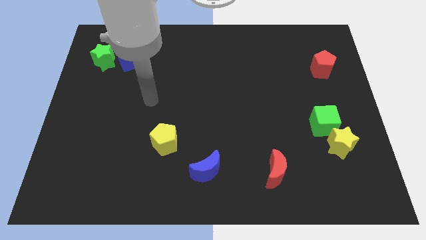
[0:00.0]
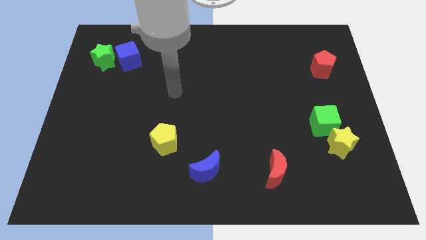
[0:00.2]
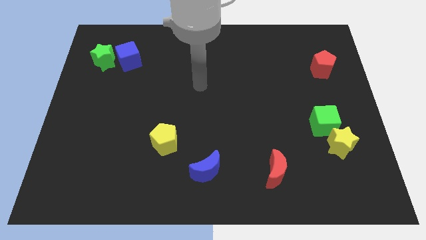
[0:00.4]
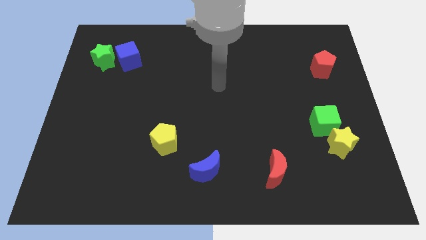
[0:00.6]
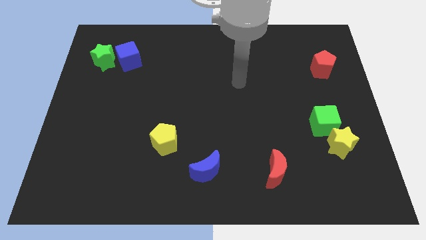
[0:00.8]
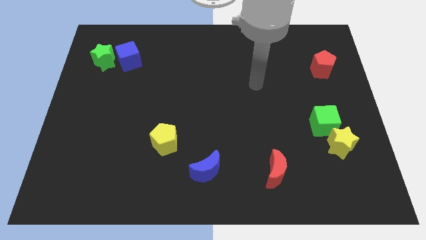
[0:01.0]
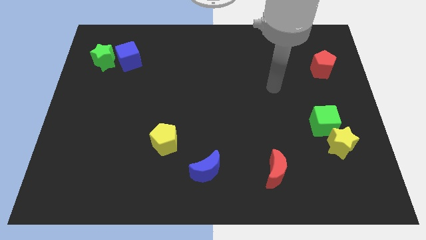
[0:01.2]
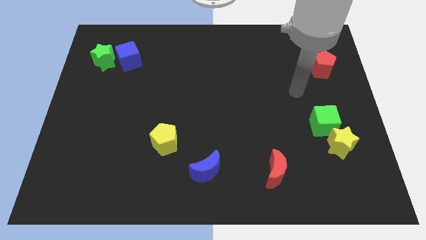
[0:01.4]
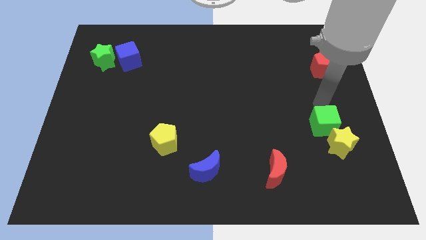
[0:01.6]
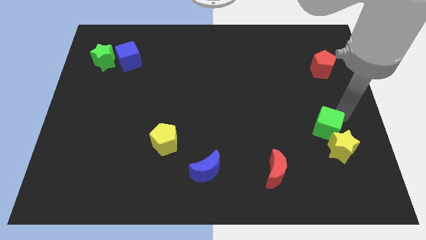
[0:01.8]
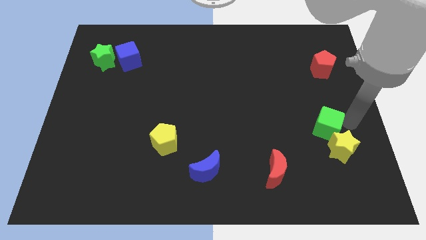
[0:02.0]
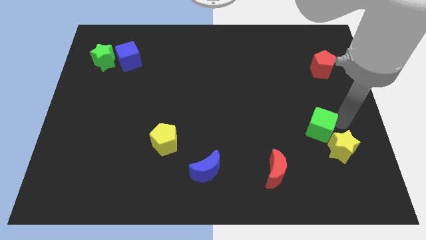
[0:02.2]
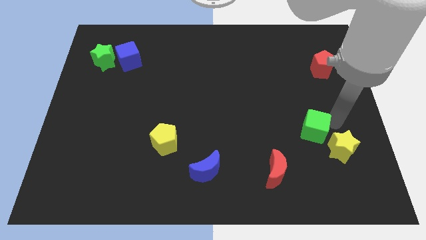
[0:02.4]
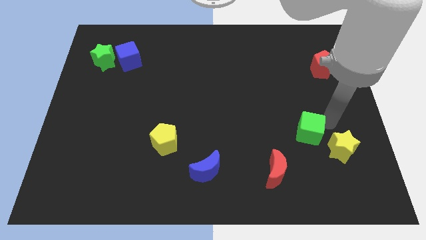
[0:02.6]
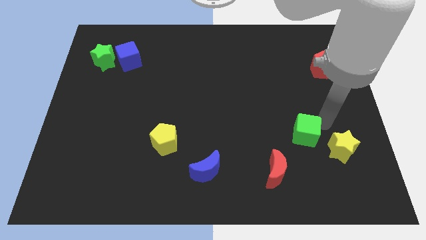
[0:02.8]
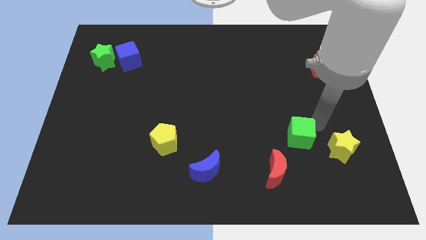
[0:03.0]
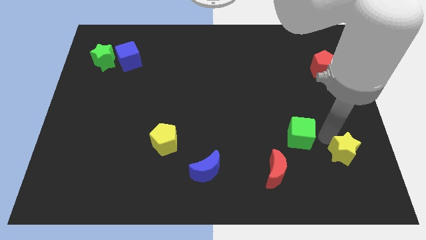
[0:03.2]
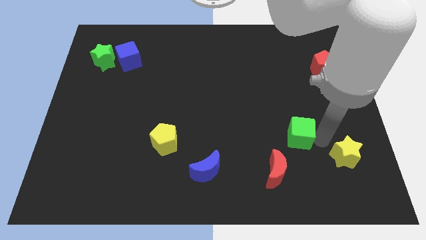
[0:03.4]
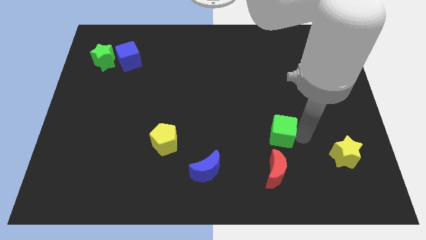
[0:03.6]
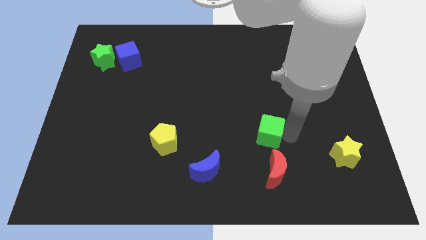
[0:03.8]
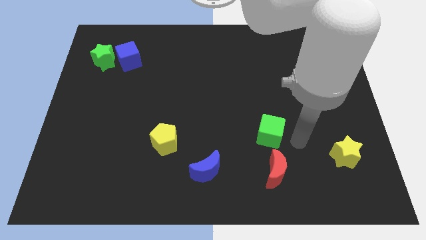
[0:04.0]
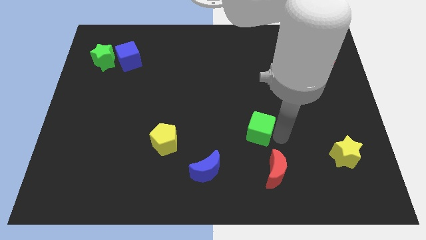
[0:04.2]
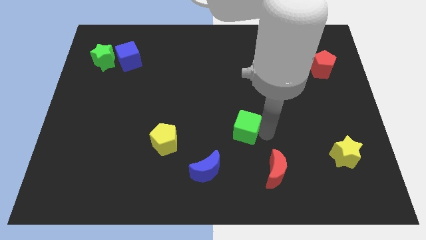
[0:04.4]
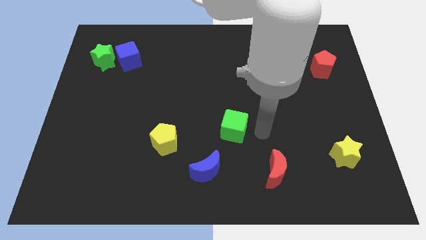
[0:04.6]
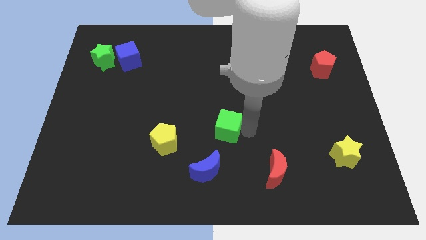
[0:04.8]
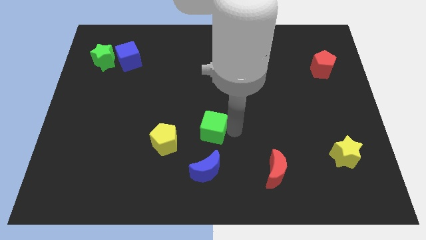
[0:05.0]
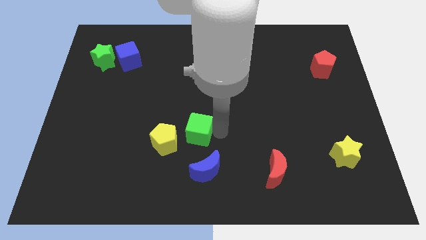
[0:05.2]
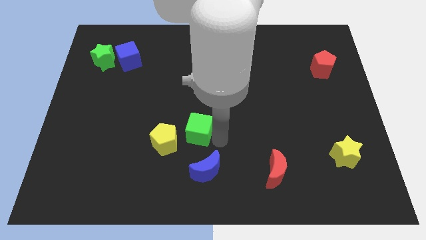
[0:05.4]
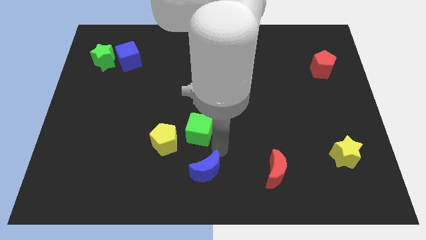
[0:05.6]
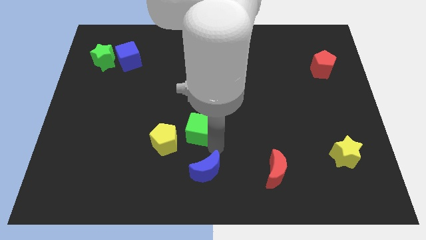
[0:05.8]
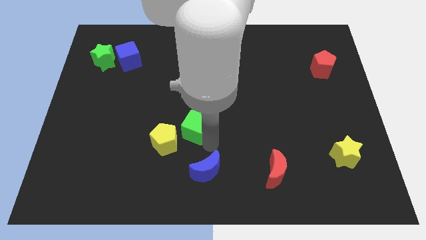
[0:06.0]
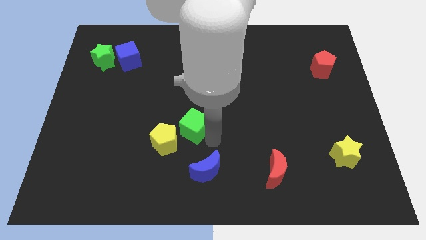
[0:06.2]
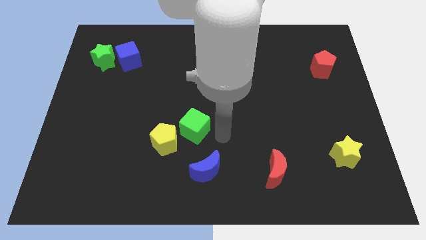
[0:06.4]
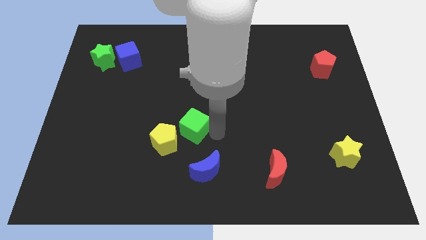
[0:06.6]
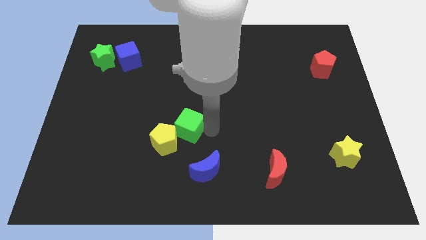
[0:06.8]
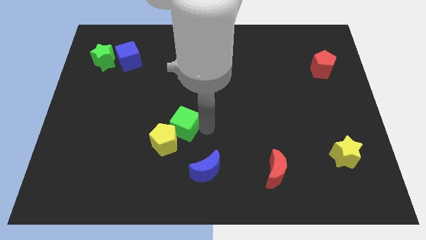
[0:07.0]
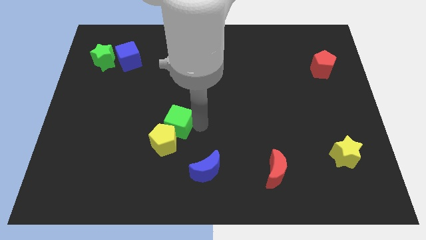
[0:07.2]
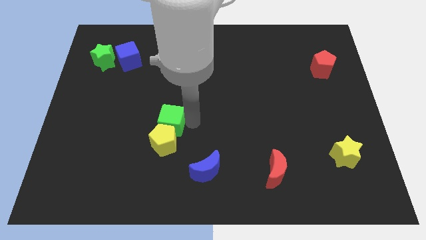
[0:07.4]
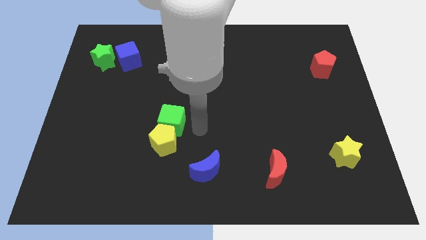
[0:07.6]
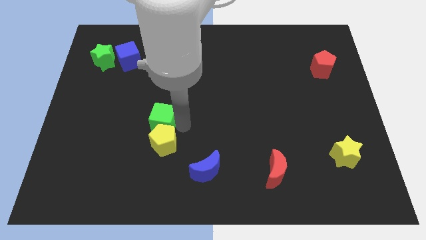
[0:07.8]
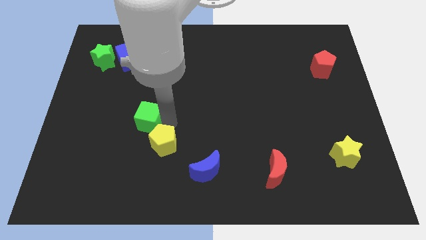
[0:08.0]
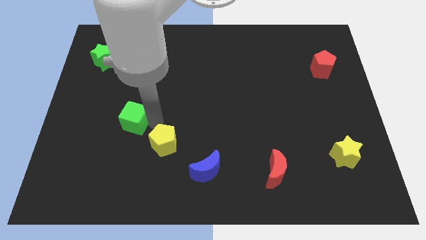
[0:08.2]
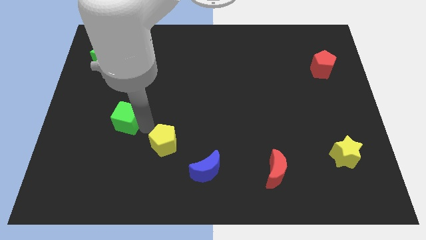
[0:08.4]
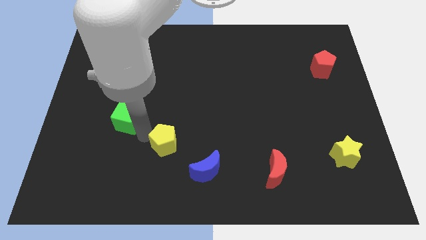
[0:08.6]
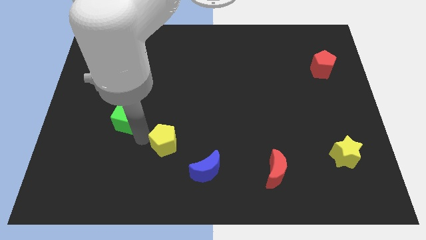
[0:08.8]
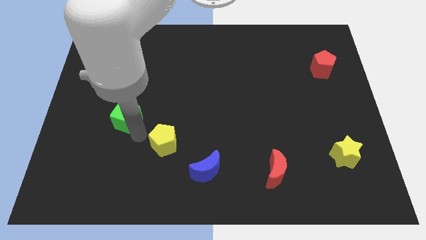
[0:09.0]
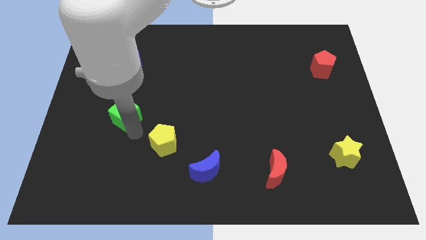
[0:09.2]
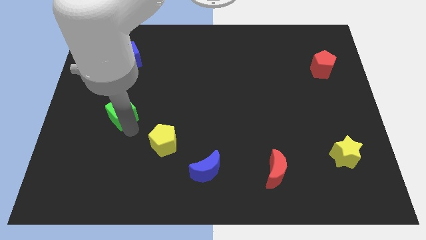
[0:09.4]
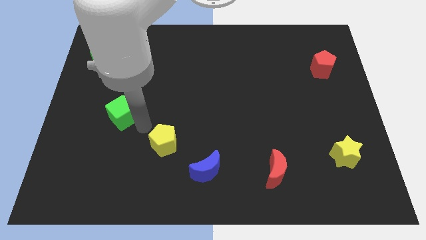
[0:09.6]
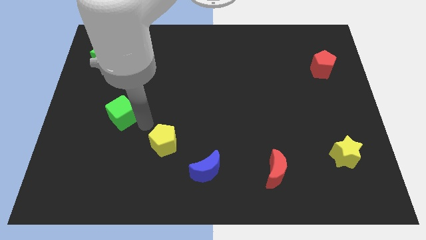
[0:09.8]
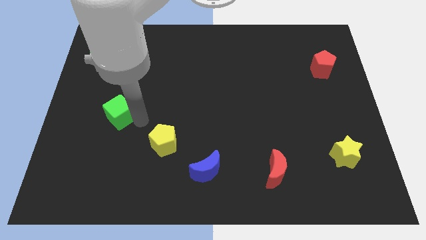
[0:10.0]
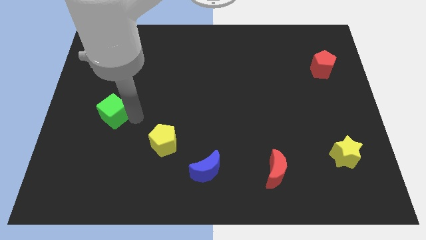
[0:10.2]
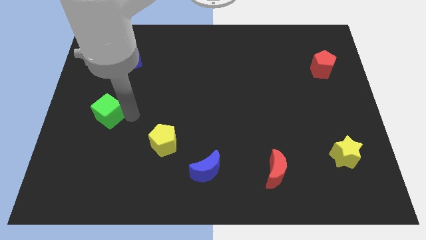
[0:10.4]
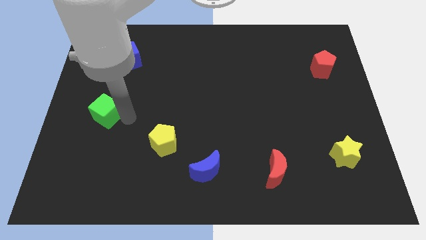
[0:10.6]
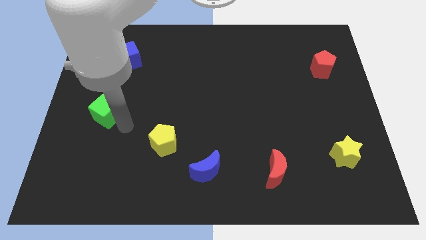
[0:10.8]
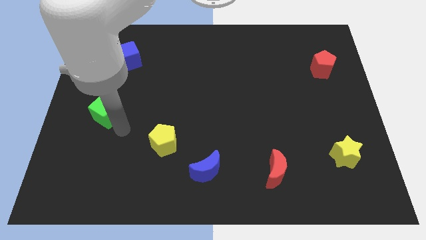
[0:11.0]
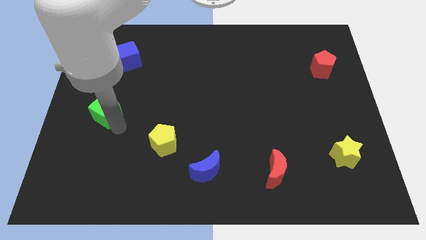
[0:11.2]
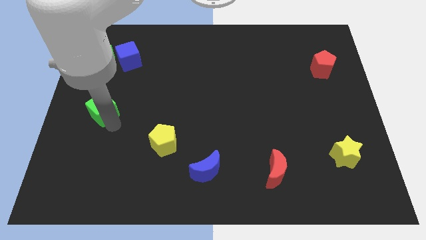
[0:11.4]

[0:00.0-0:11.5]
put the green cube to the left side of the board

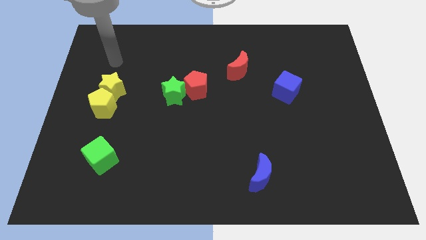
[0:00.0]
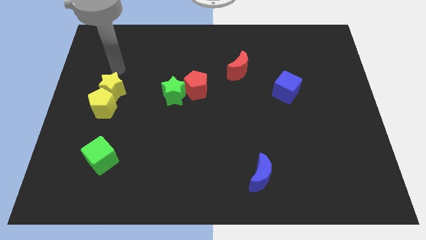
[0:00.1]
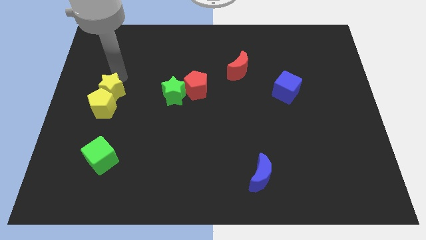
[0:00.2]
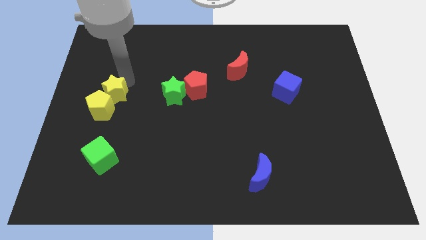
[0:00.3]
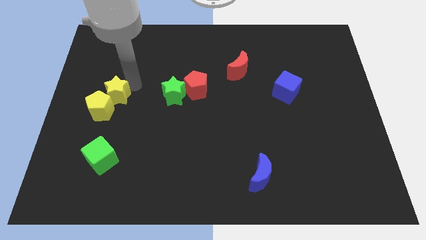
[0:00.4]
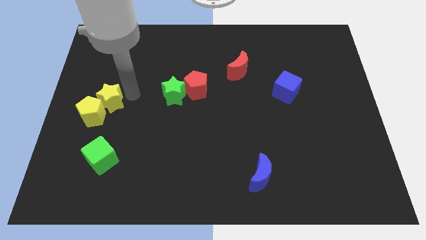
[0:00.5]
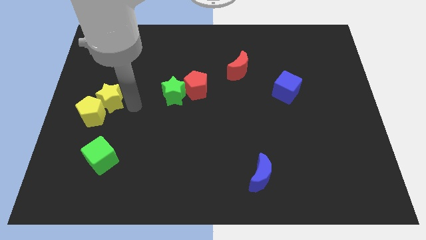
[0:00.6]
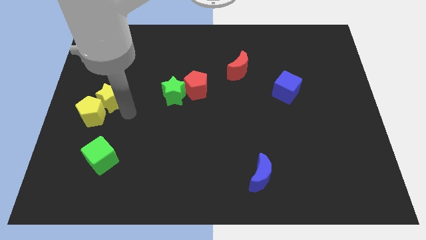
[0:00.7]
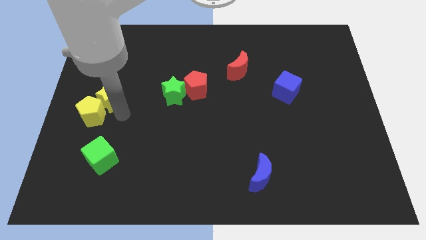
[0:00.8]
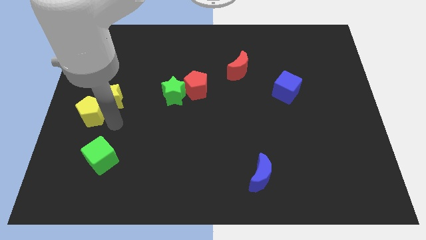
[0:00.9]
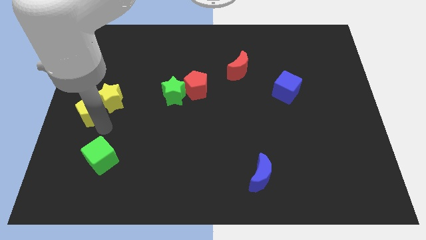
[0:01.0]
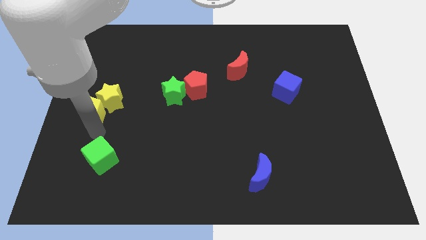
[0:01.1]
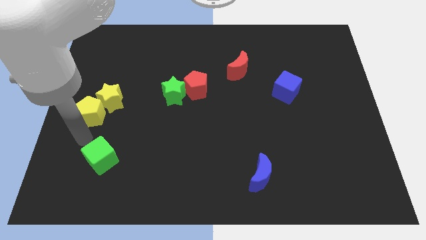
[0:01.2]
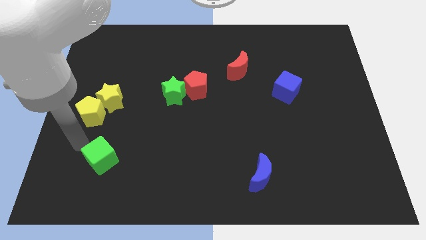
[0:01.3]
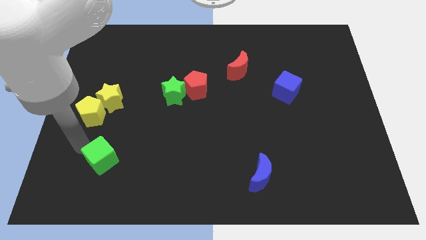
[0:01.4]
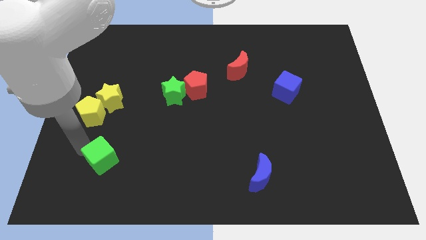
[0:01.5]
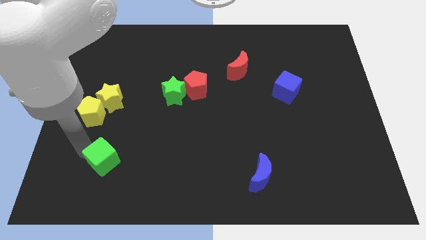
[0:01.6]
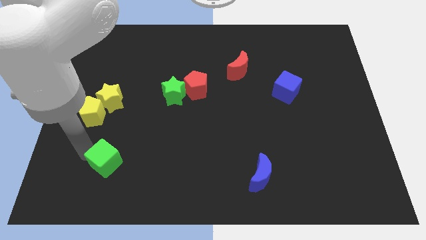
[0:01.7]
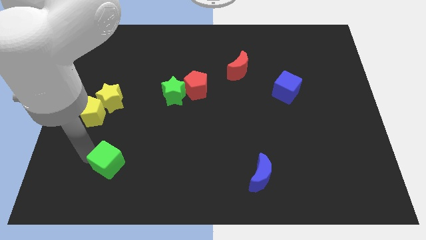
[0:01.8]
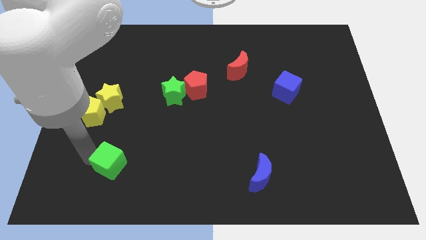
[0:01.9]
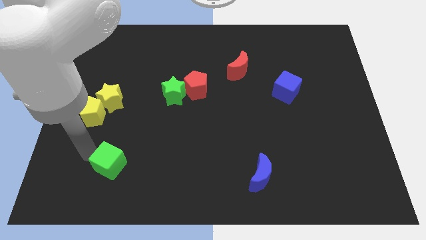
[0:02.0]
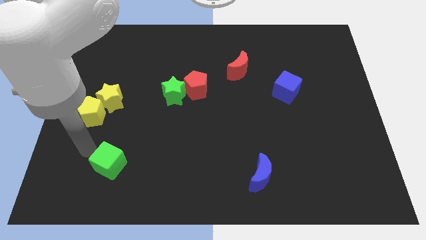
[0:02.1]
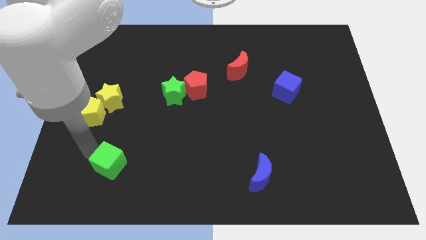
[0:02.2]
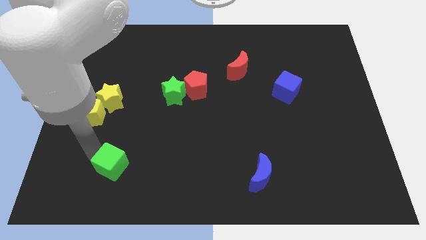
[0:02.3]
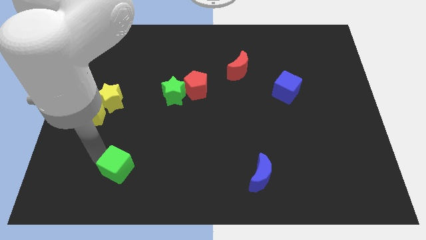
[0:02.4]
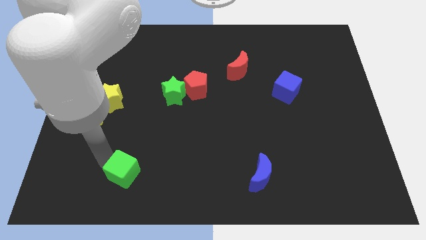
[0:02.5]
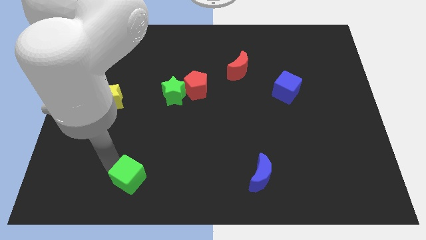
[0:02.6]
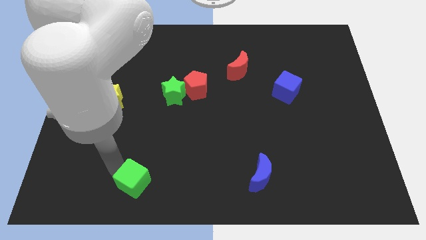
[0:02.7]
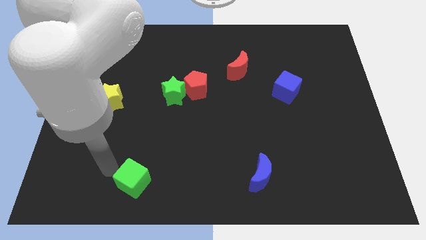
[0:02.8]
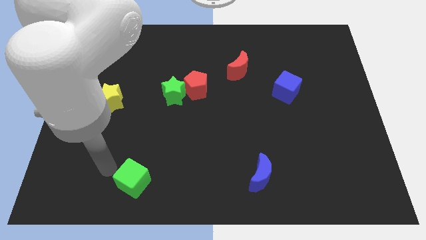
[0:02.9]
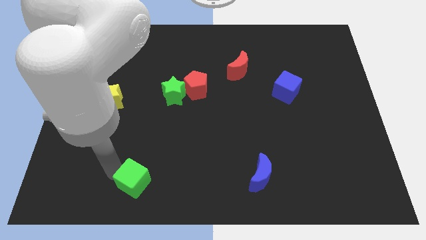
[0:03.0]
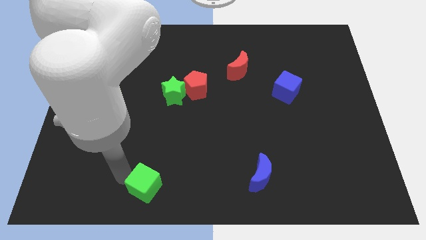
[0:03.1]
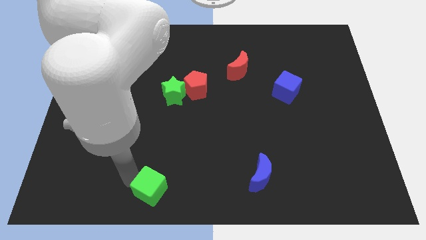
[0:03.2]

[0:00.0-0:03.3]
move the green cube to the bottom side
